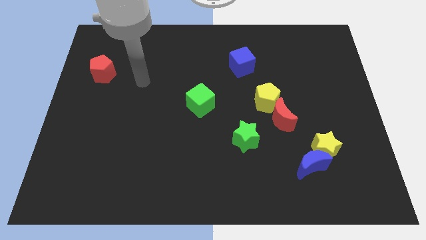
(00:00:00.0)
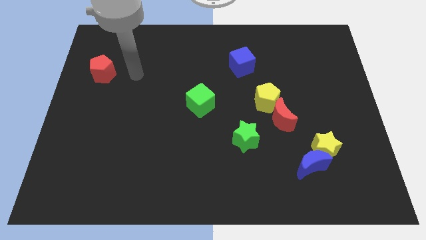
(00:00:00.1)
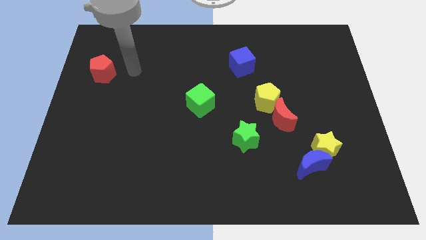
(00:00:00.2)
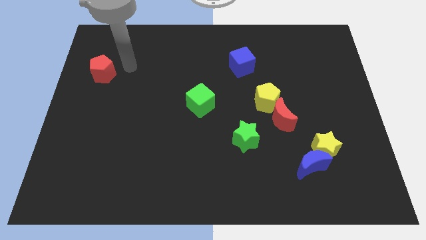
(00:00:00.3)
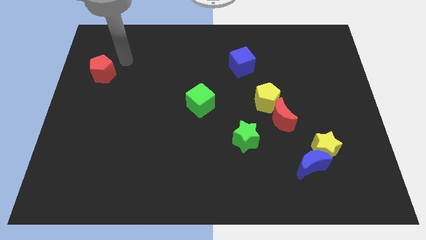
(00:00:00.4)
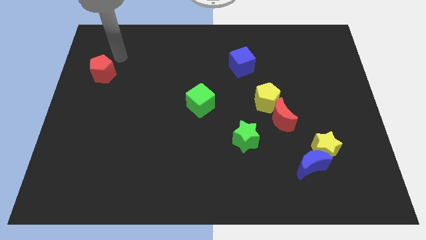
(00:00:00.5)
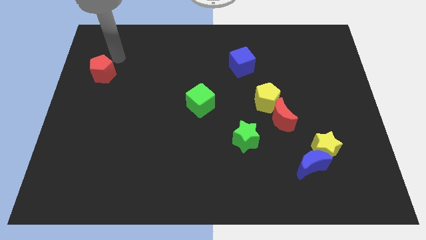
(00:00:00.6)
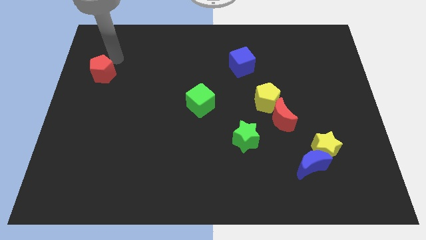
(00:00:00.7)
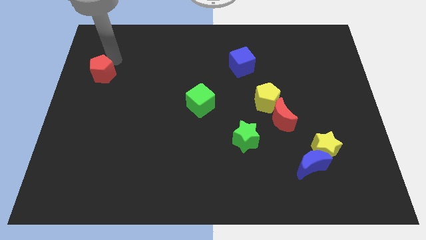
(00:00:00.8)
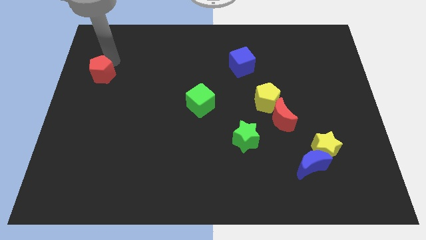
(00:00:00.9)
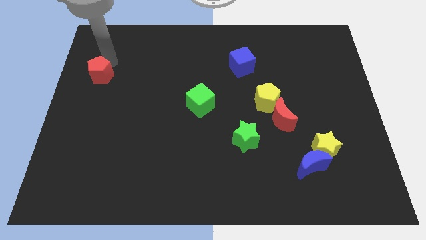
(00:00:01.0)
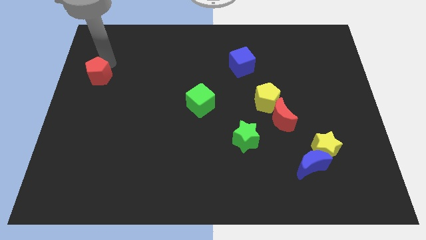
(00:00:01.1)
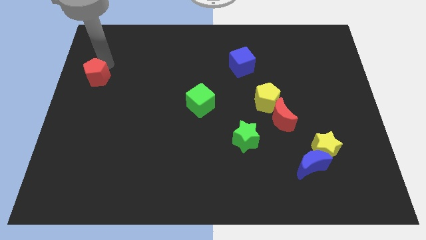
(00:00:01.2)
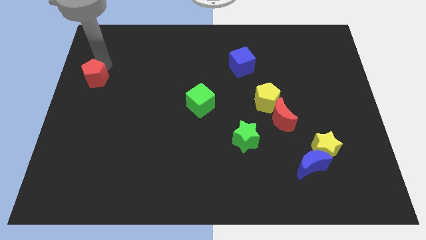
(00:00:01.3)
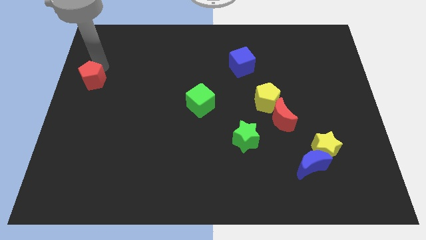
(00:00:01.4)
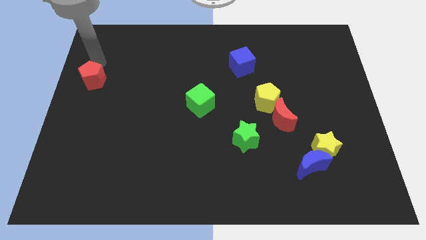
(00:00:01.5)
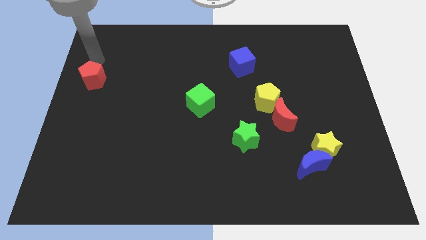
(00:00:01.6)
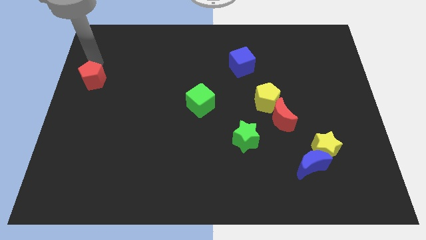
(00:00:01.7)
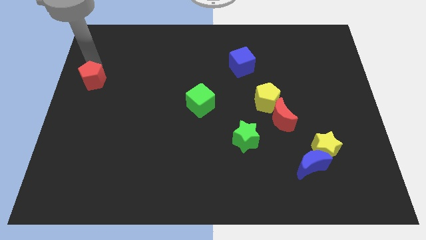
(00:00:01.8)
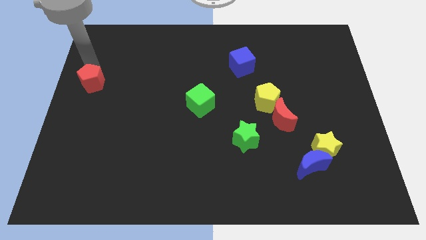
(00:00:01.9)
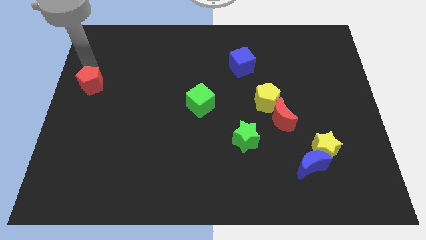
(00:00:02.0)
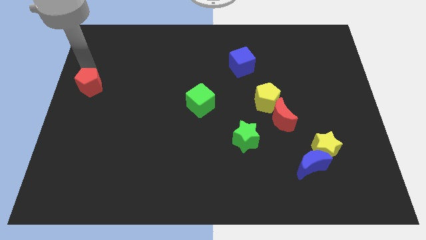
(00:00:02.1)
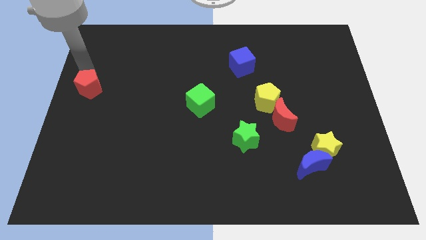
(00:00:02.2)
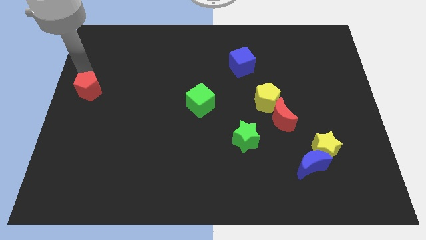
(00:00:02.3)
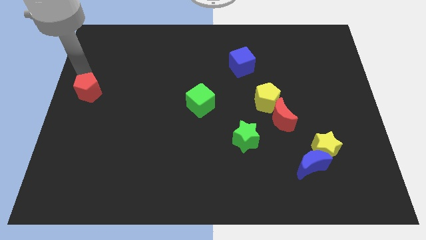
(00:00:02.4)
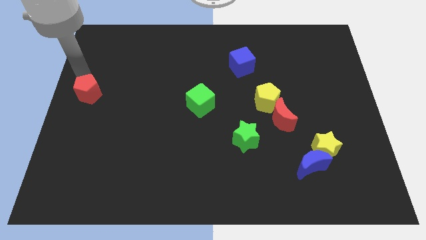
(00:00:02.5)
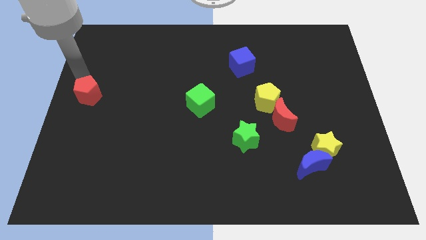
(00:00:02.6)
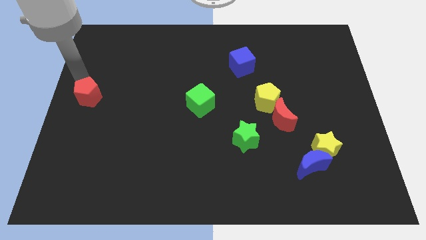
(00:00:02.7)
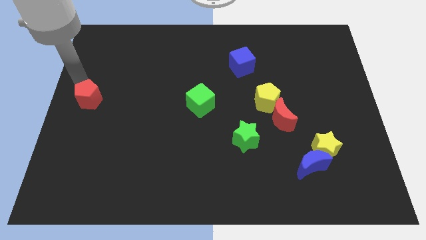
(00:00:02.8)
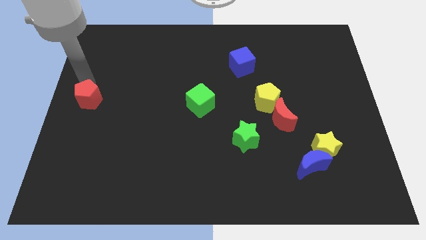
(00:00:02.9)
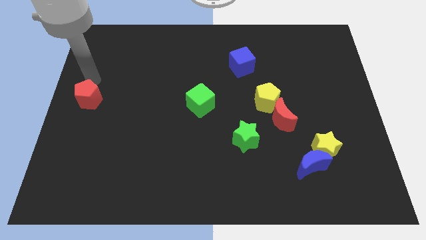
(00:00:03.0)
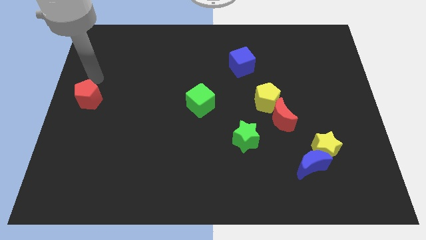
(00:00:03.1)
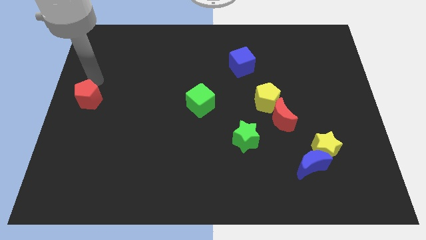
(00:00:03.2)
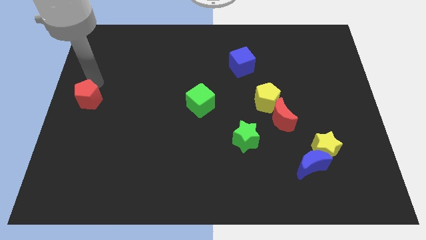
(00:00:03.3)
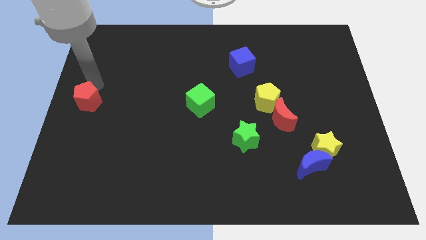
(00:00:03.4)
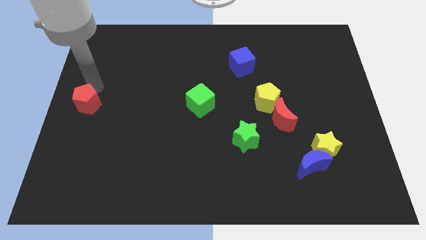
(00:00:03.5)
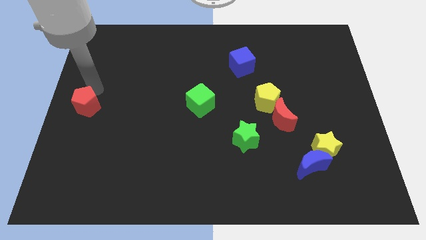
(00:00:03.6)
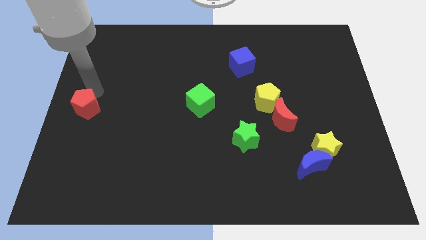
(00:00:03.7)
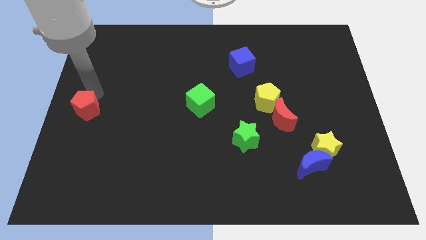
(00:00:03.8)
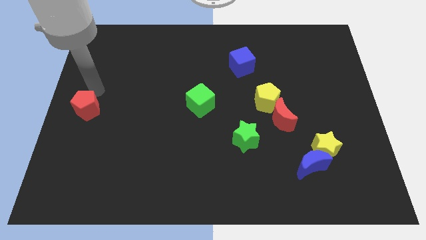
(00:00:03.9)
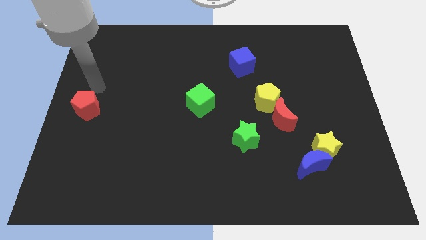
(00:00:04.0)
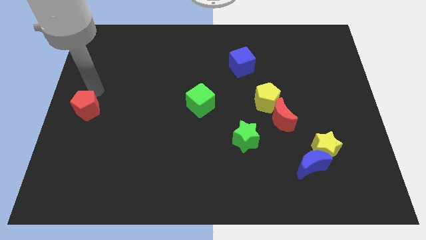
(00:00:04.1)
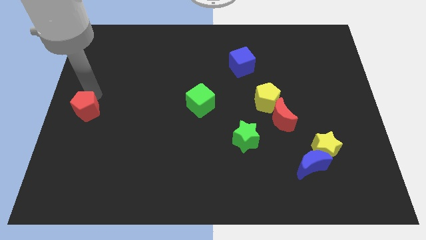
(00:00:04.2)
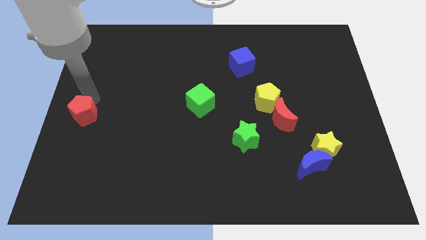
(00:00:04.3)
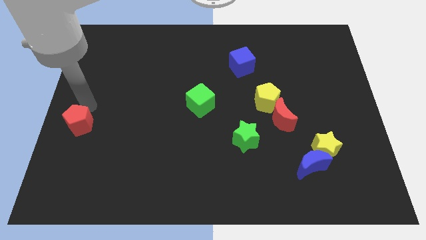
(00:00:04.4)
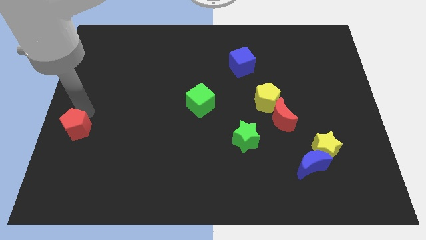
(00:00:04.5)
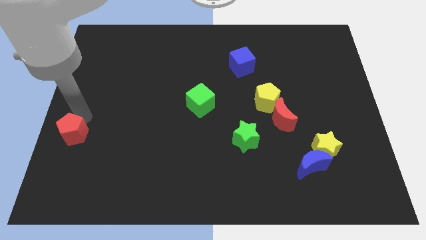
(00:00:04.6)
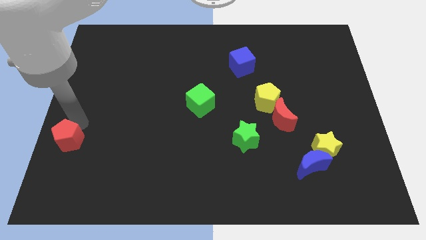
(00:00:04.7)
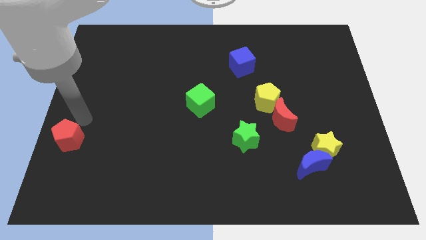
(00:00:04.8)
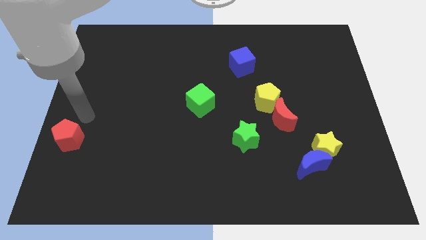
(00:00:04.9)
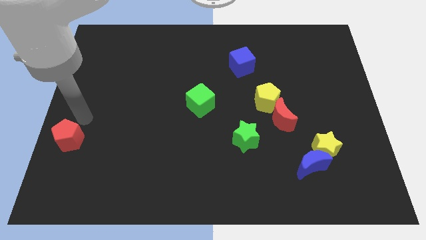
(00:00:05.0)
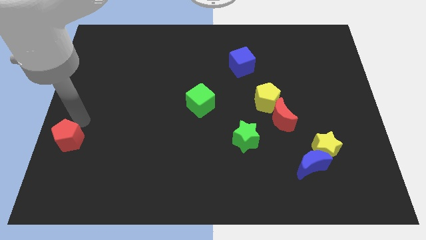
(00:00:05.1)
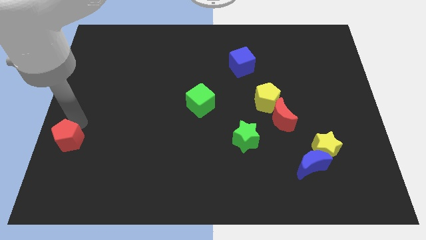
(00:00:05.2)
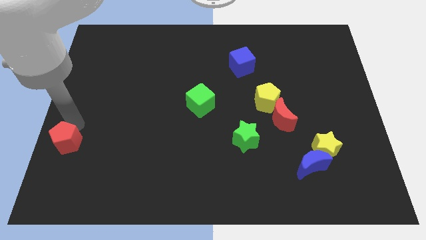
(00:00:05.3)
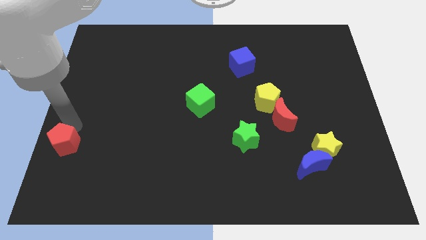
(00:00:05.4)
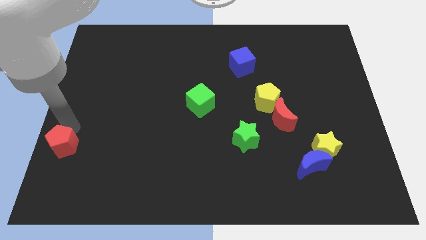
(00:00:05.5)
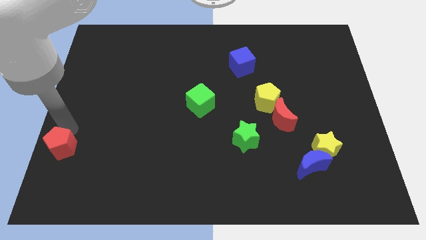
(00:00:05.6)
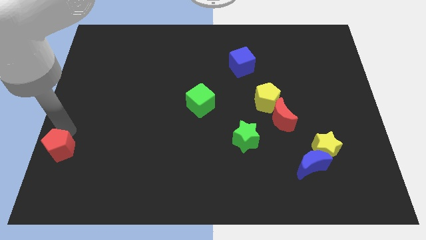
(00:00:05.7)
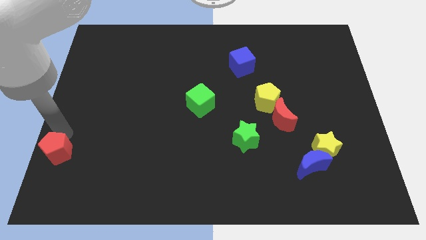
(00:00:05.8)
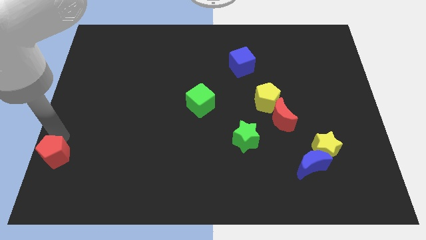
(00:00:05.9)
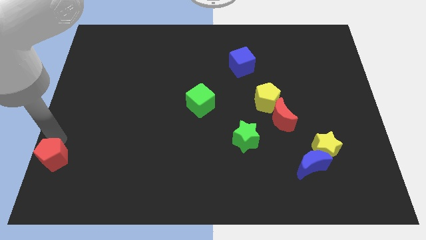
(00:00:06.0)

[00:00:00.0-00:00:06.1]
slide the red pentagon to the lower left corner
